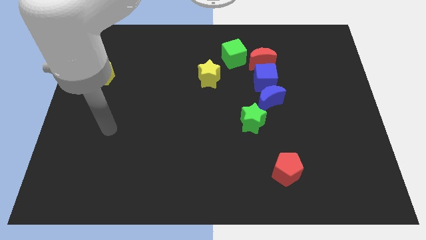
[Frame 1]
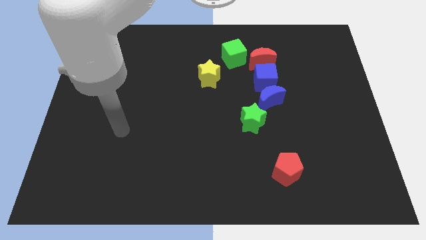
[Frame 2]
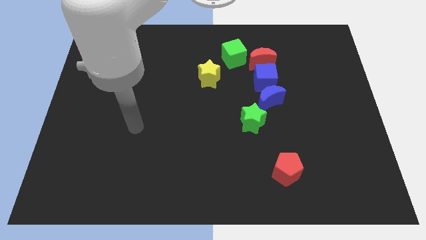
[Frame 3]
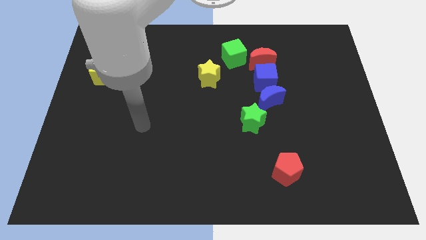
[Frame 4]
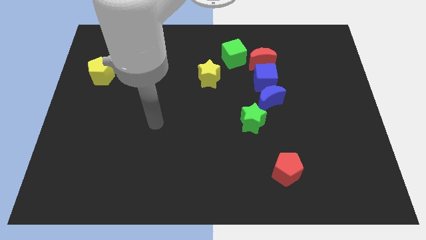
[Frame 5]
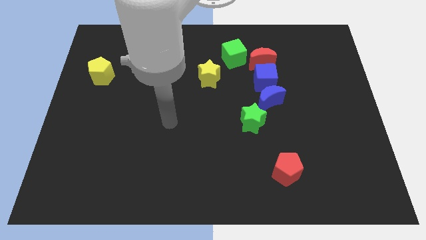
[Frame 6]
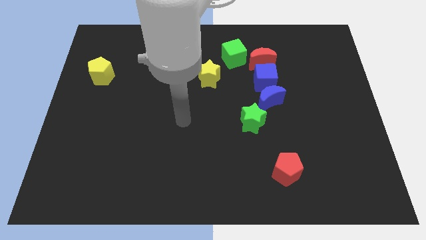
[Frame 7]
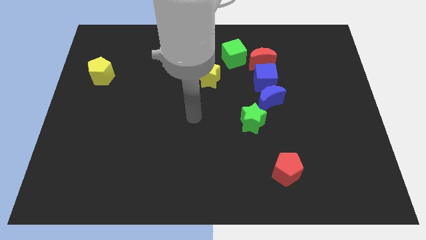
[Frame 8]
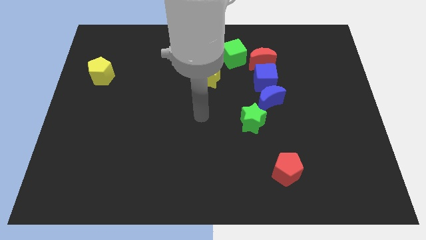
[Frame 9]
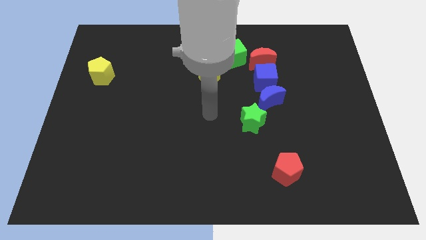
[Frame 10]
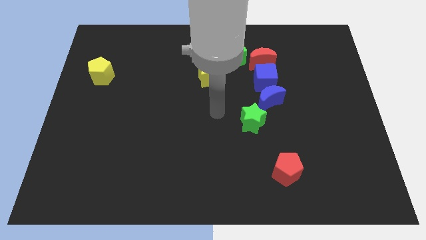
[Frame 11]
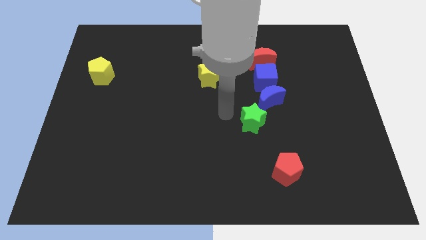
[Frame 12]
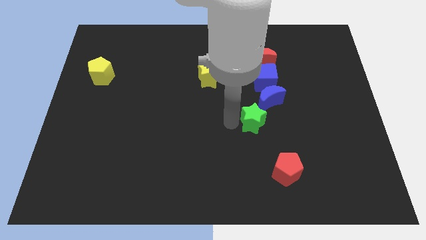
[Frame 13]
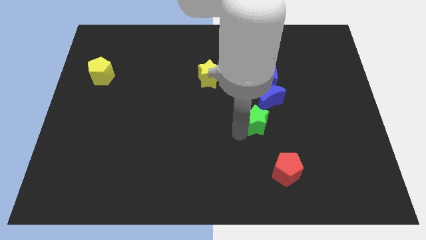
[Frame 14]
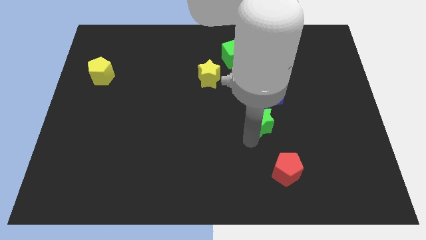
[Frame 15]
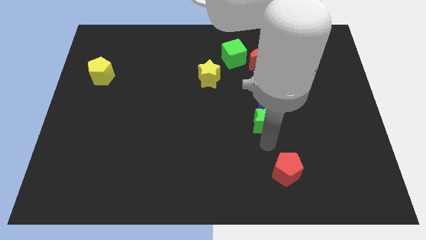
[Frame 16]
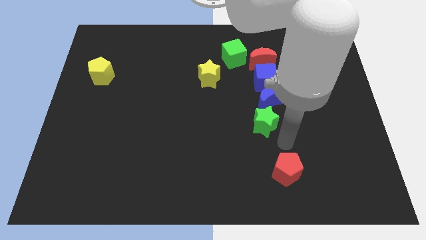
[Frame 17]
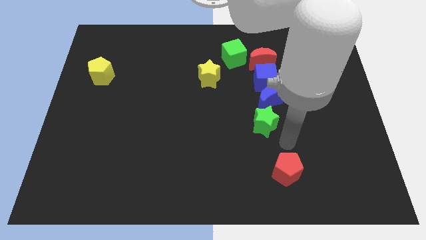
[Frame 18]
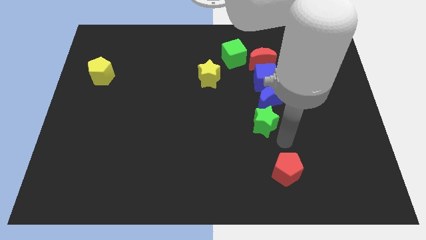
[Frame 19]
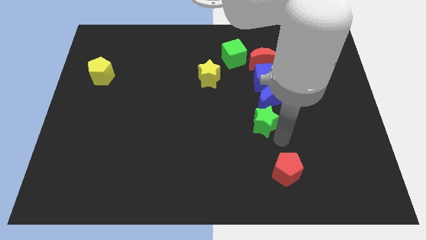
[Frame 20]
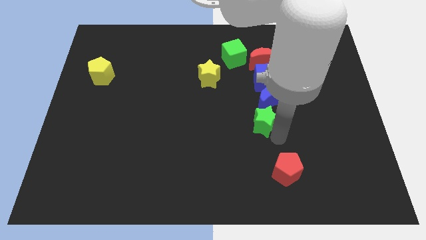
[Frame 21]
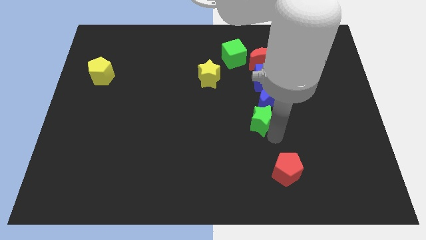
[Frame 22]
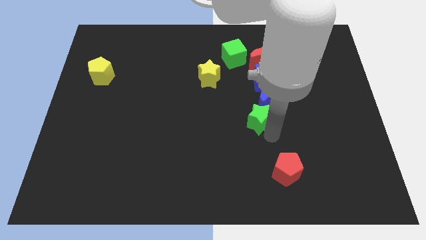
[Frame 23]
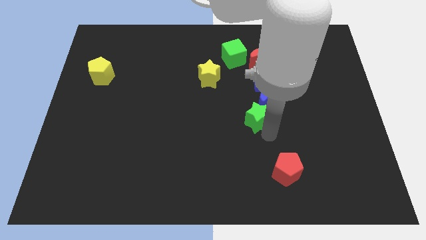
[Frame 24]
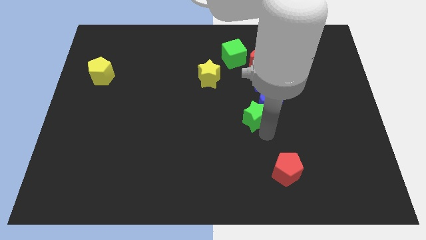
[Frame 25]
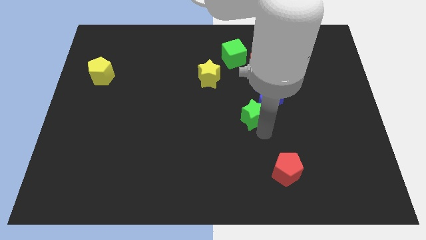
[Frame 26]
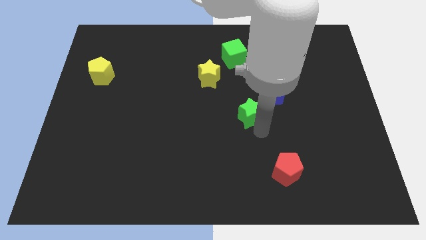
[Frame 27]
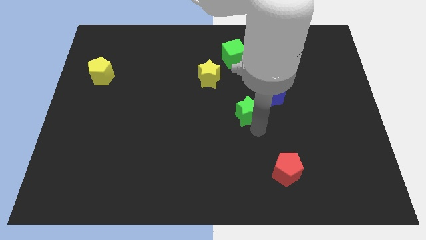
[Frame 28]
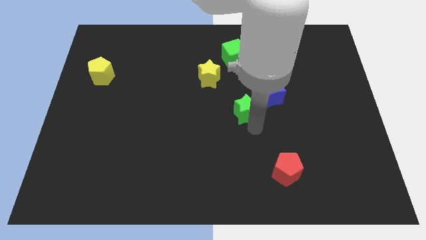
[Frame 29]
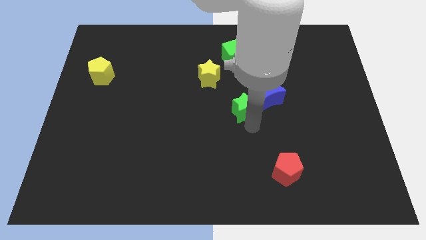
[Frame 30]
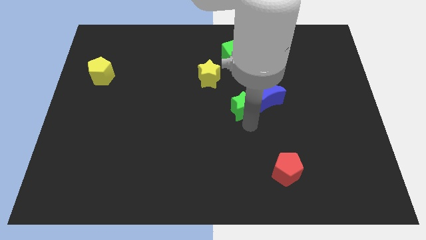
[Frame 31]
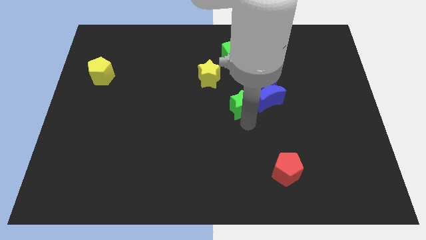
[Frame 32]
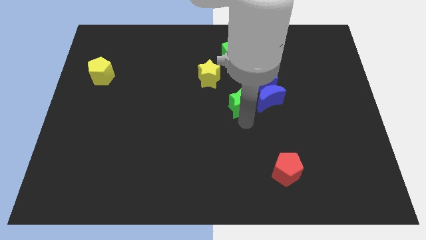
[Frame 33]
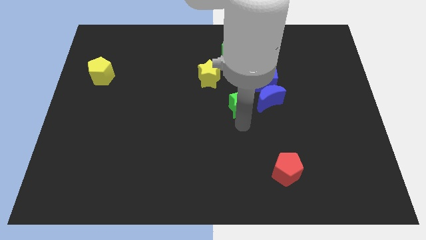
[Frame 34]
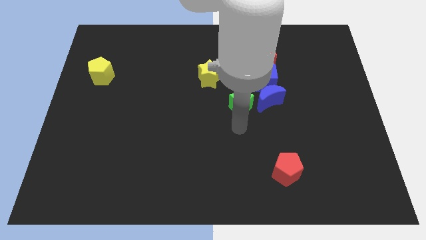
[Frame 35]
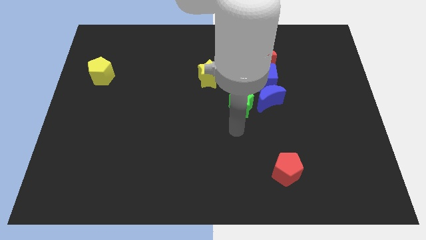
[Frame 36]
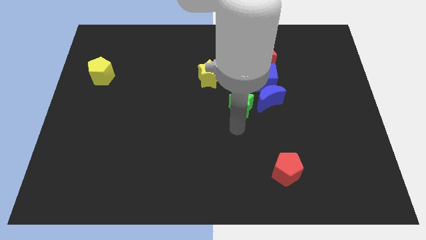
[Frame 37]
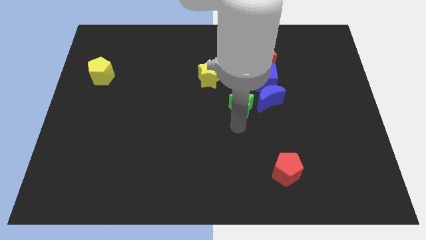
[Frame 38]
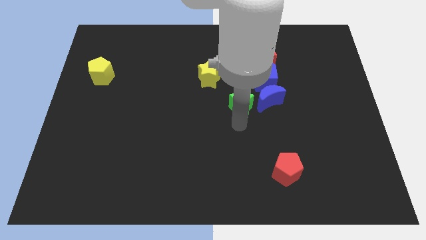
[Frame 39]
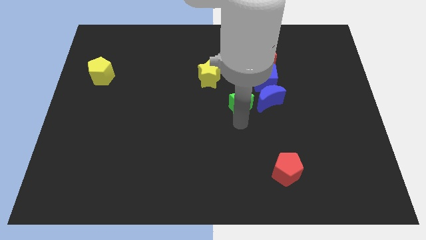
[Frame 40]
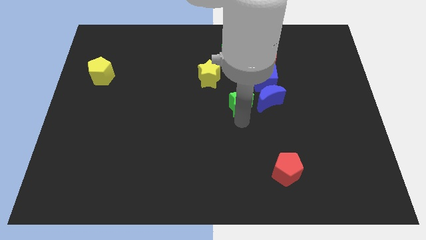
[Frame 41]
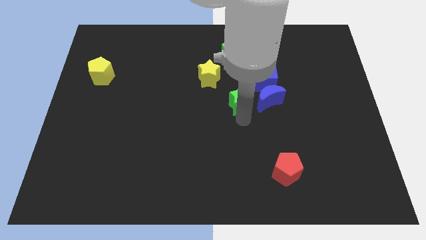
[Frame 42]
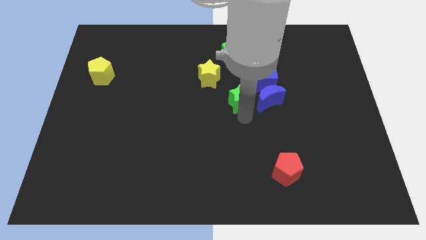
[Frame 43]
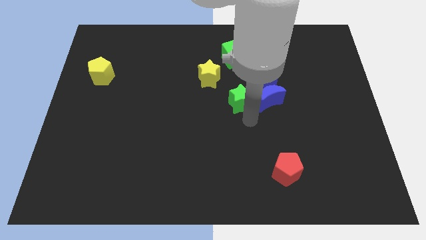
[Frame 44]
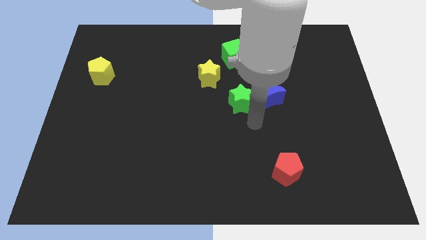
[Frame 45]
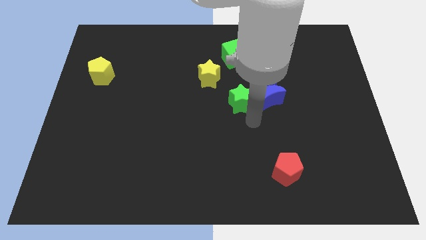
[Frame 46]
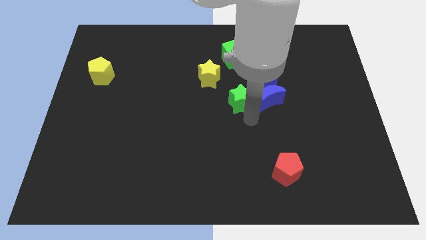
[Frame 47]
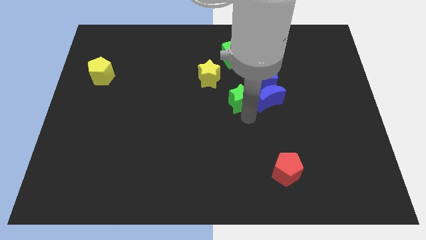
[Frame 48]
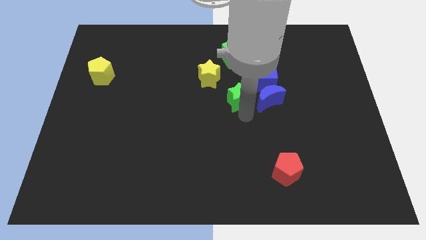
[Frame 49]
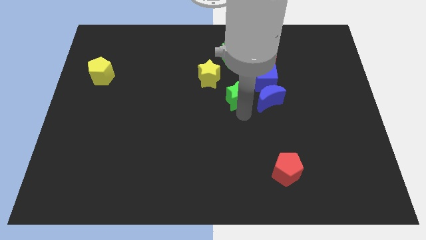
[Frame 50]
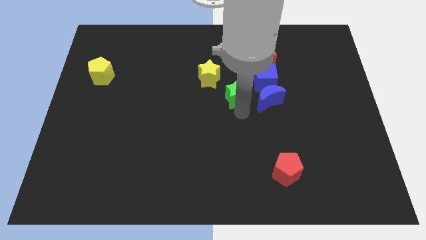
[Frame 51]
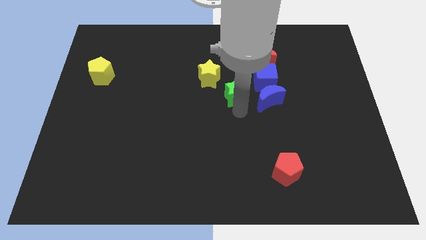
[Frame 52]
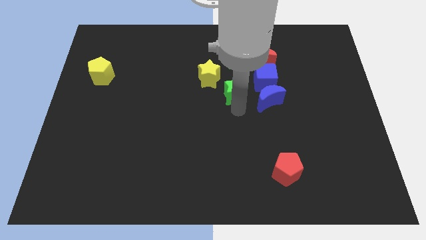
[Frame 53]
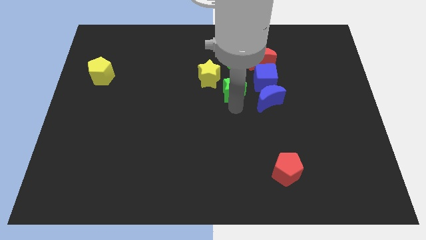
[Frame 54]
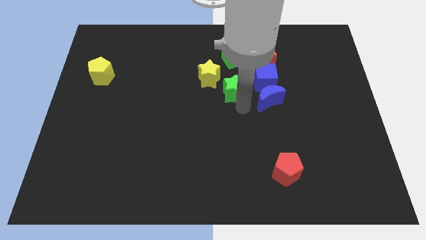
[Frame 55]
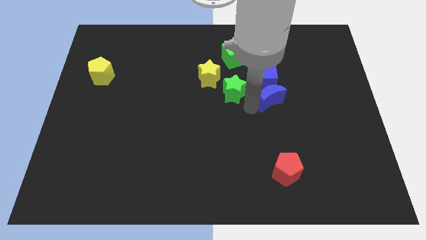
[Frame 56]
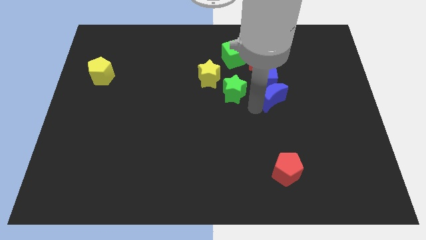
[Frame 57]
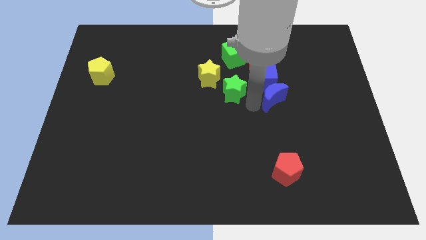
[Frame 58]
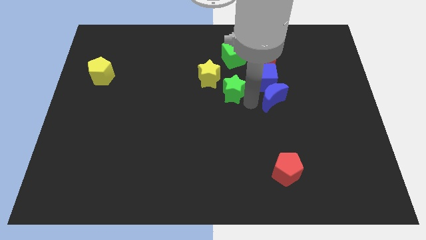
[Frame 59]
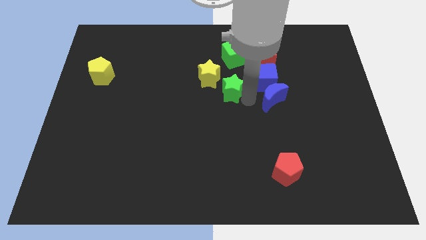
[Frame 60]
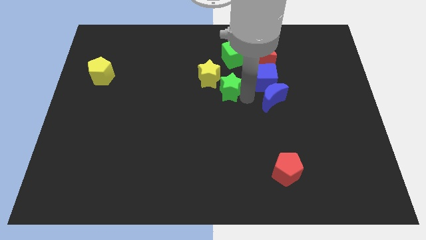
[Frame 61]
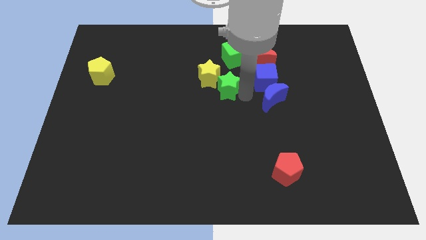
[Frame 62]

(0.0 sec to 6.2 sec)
put the green star towards the yellow star

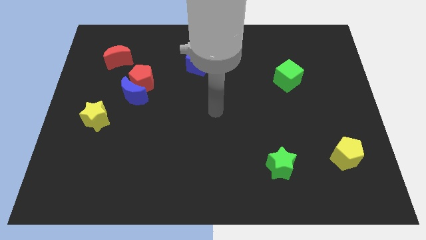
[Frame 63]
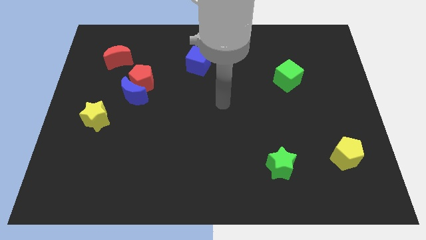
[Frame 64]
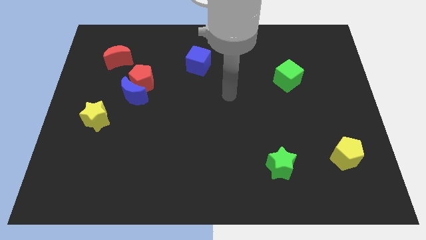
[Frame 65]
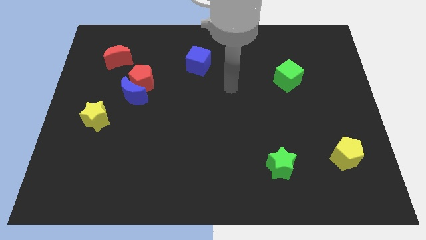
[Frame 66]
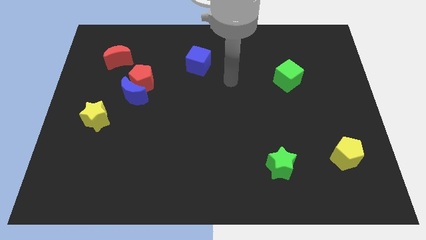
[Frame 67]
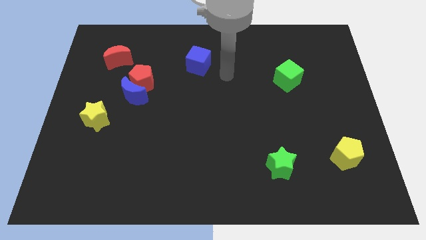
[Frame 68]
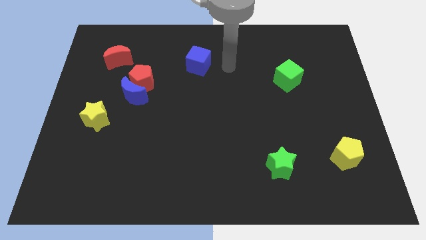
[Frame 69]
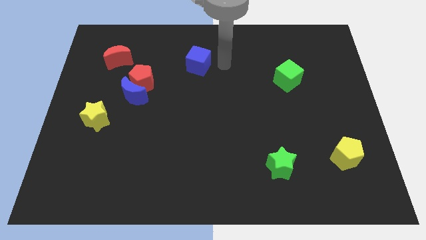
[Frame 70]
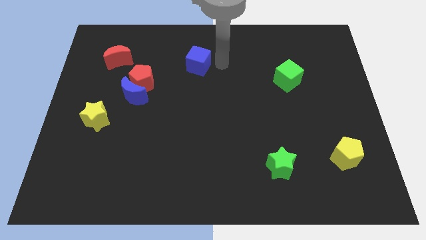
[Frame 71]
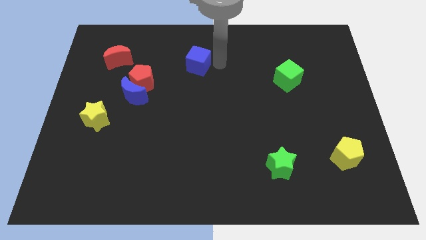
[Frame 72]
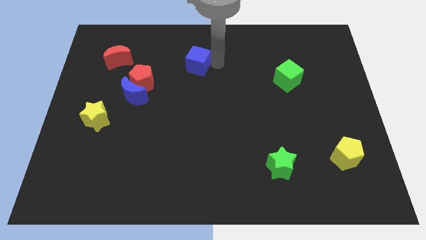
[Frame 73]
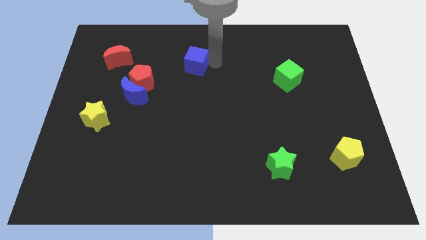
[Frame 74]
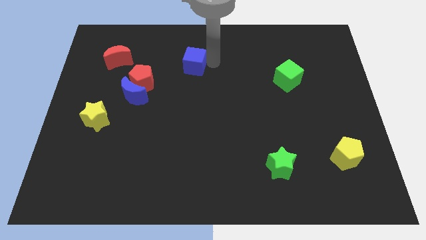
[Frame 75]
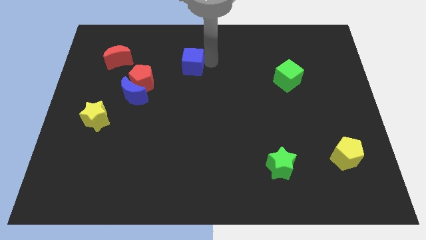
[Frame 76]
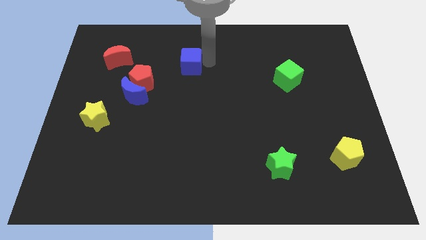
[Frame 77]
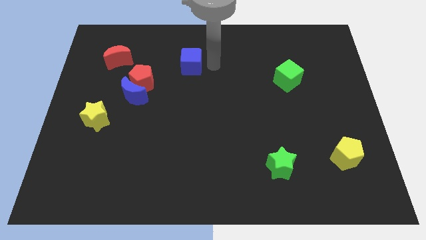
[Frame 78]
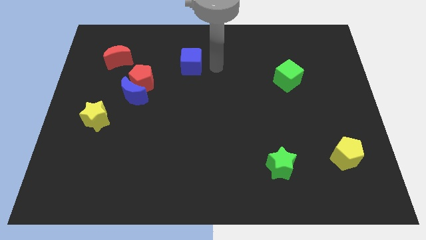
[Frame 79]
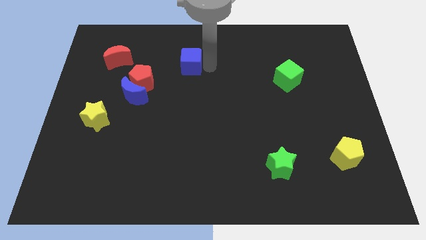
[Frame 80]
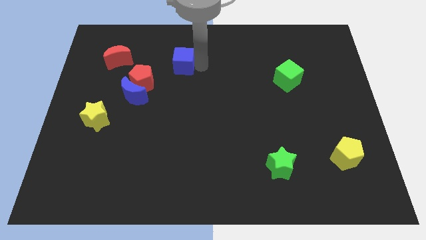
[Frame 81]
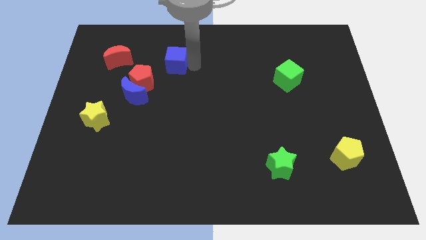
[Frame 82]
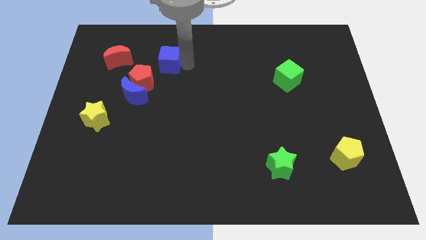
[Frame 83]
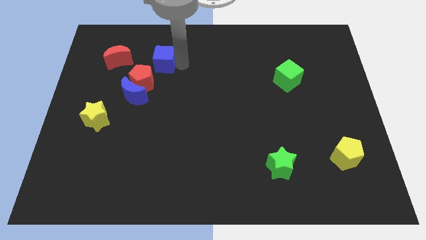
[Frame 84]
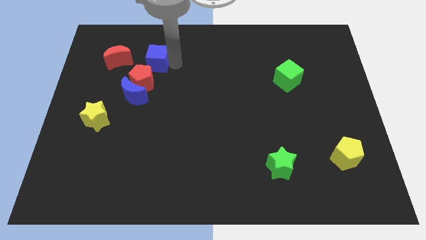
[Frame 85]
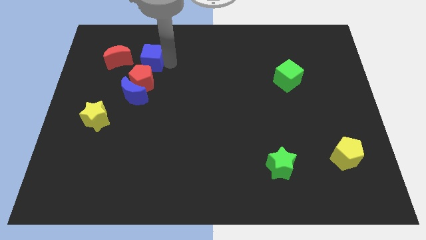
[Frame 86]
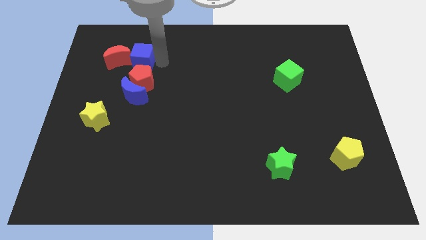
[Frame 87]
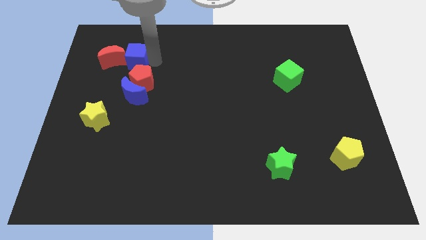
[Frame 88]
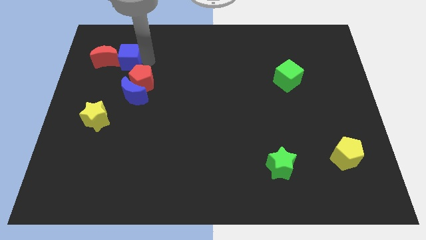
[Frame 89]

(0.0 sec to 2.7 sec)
move the blue cube to the red moon
